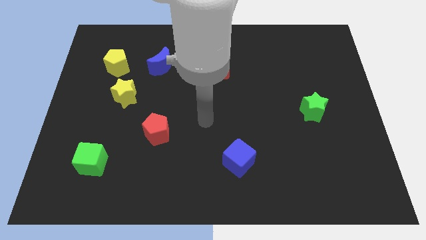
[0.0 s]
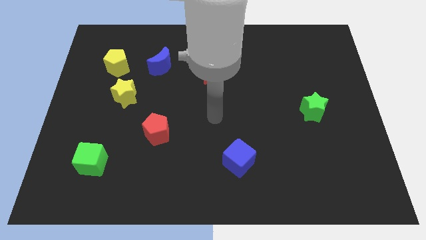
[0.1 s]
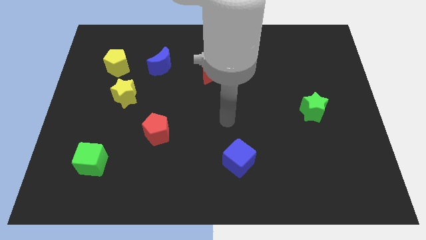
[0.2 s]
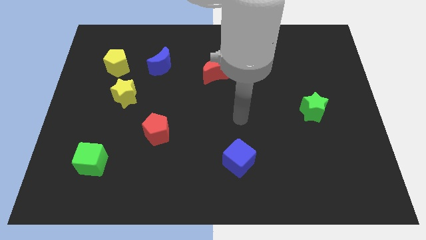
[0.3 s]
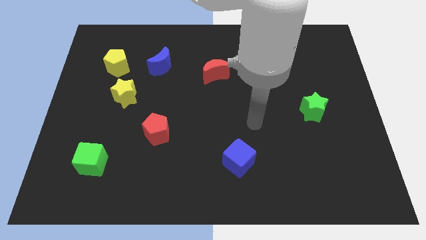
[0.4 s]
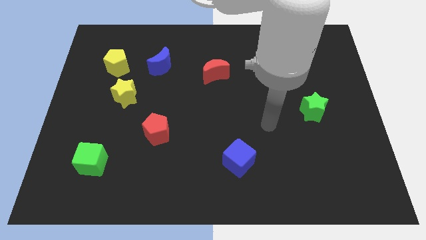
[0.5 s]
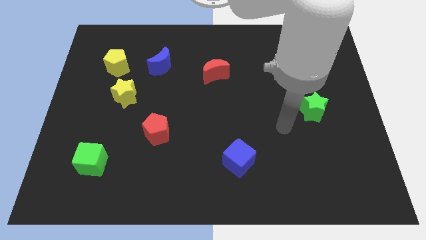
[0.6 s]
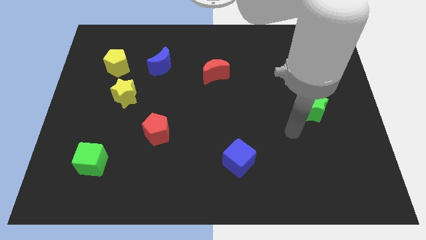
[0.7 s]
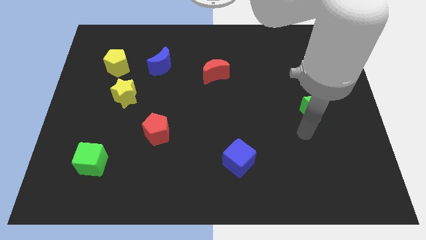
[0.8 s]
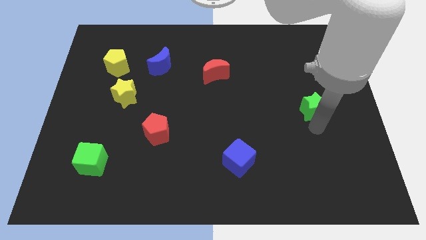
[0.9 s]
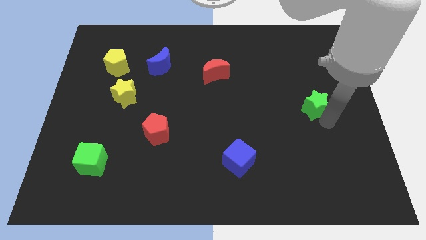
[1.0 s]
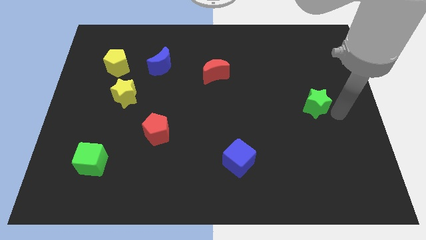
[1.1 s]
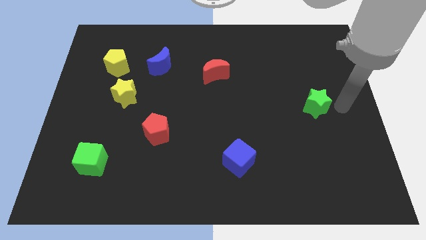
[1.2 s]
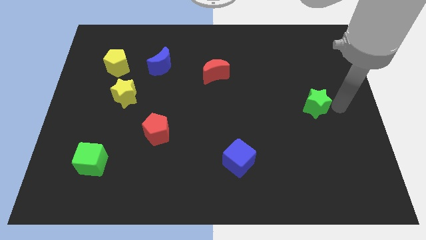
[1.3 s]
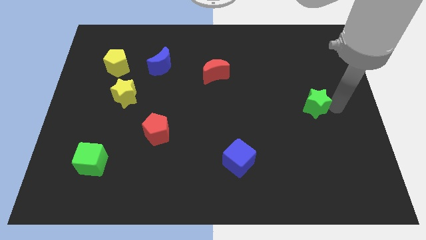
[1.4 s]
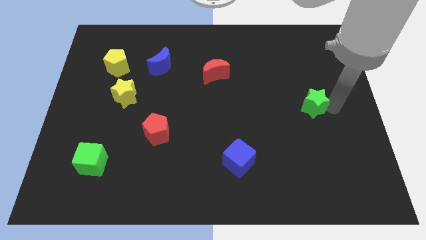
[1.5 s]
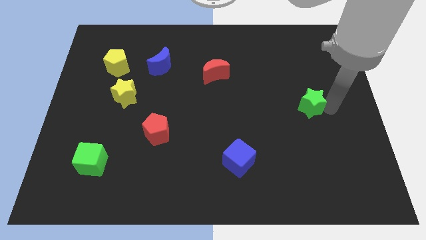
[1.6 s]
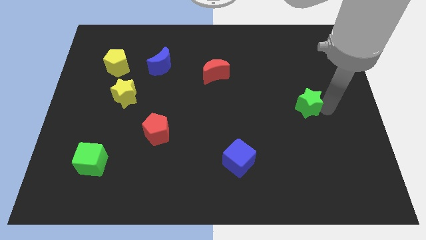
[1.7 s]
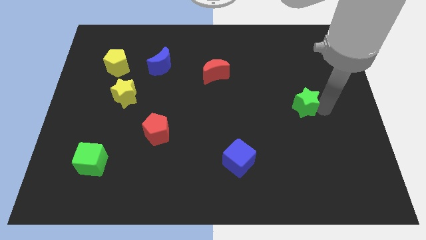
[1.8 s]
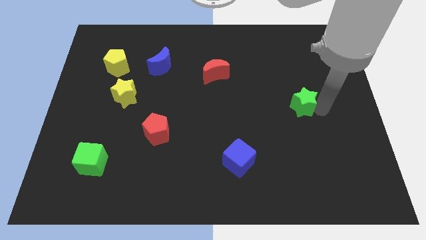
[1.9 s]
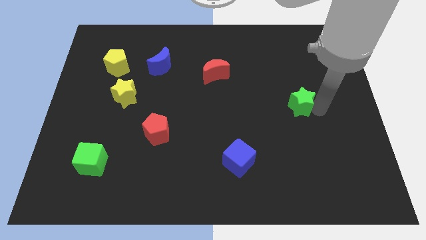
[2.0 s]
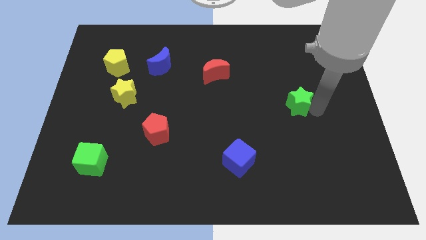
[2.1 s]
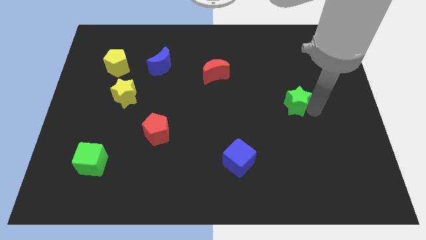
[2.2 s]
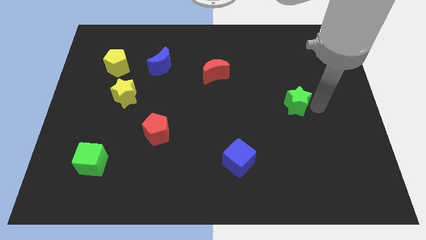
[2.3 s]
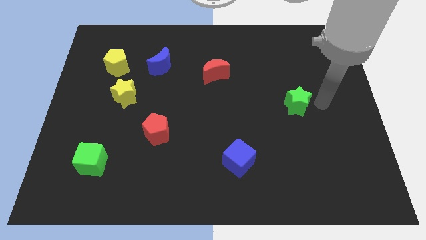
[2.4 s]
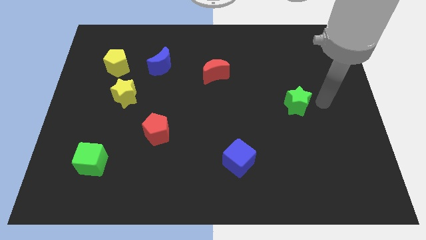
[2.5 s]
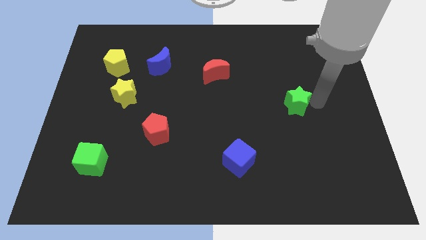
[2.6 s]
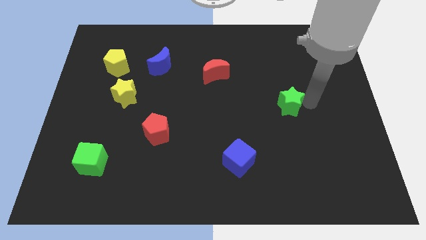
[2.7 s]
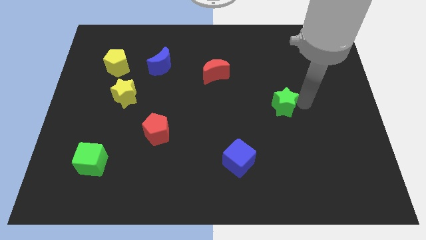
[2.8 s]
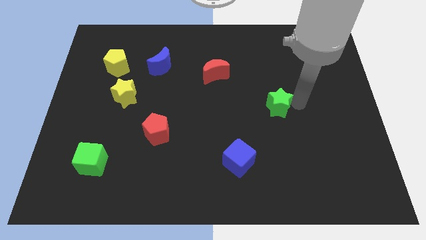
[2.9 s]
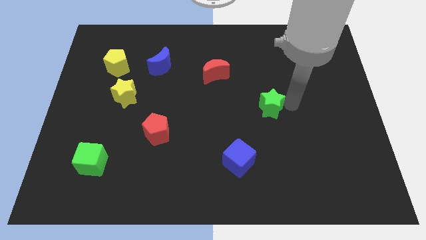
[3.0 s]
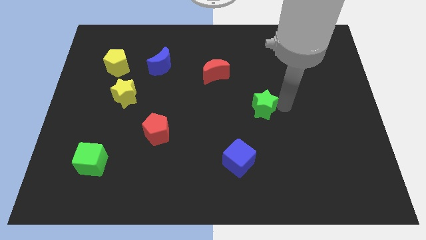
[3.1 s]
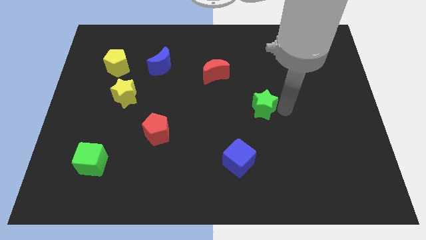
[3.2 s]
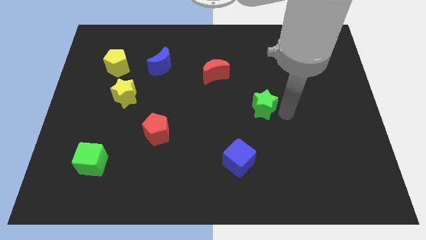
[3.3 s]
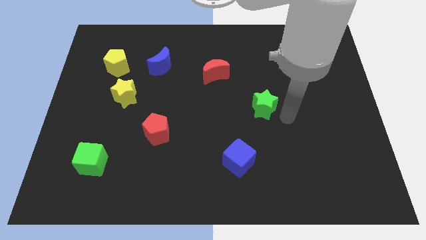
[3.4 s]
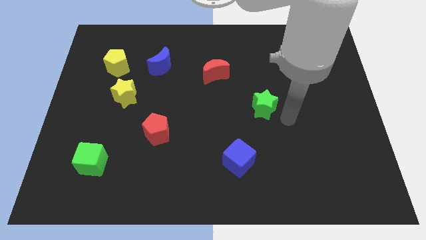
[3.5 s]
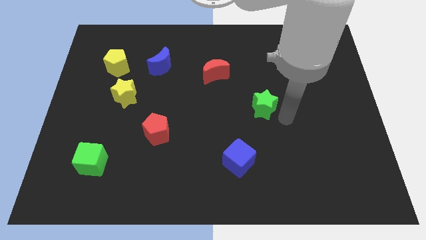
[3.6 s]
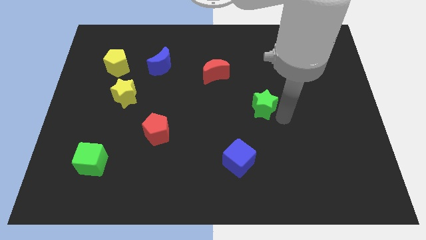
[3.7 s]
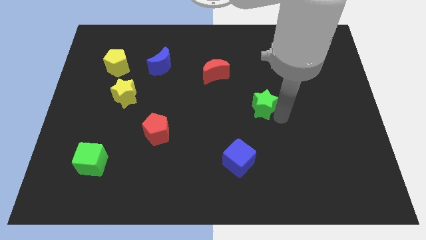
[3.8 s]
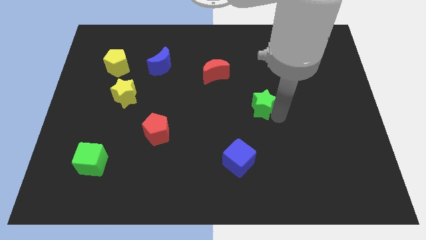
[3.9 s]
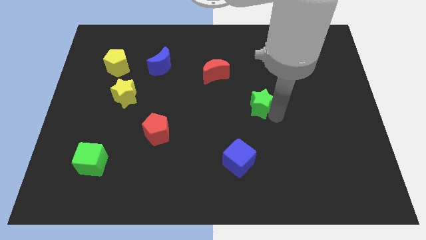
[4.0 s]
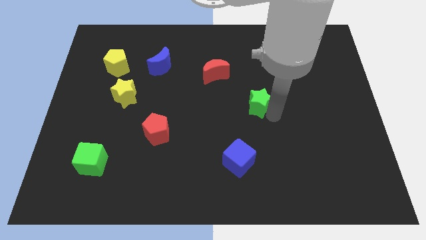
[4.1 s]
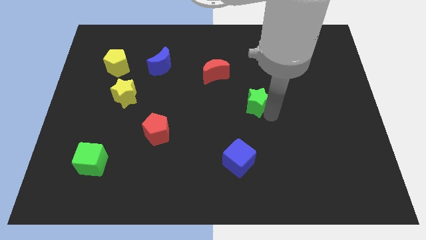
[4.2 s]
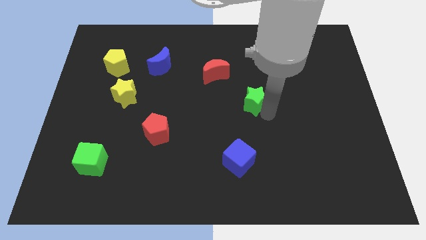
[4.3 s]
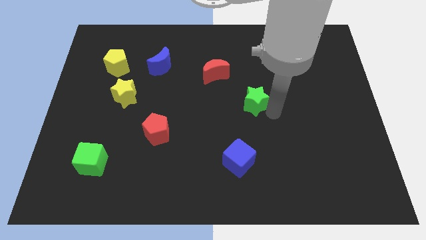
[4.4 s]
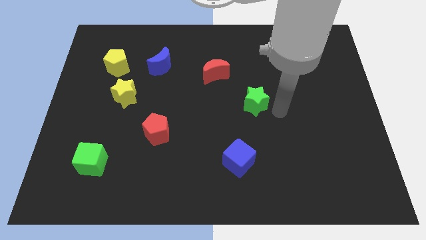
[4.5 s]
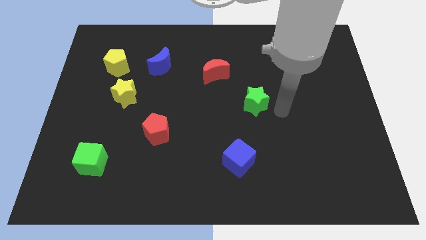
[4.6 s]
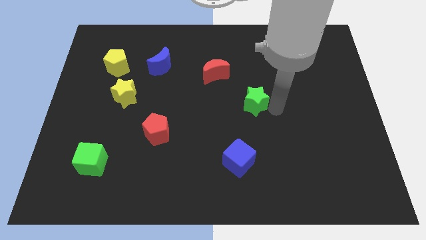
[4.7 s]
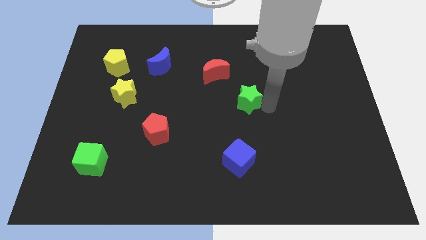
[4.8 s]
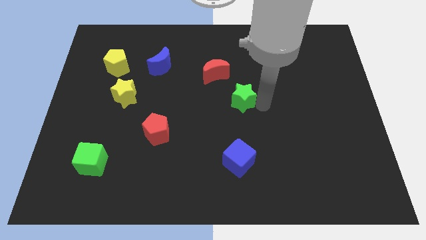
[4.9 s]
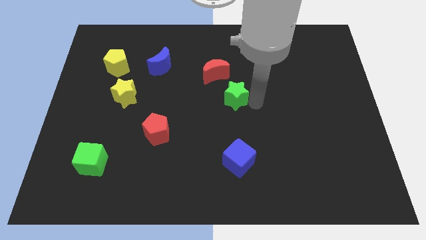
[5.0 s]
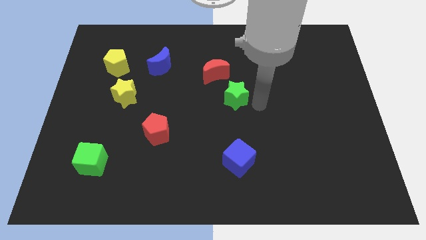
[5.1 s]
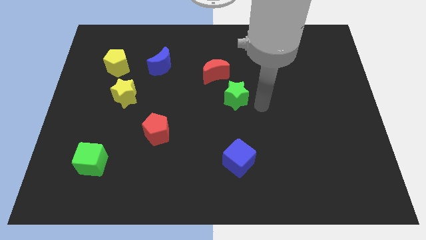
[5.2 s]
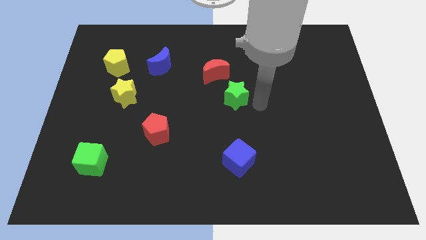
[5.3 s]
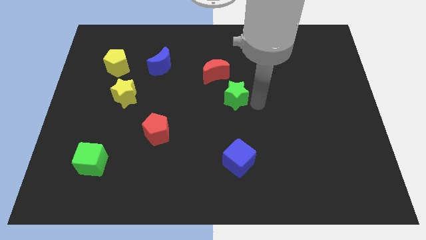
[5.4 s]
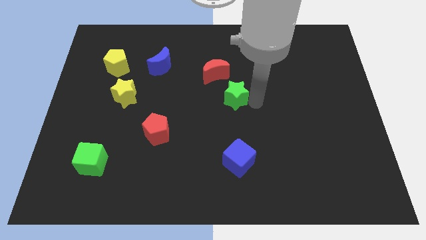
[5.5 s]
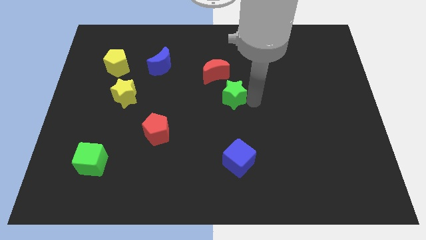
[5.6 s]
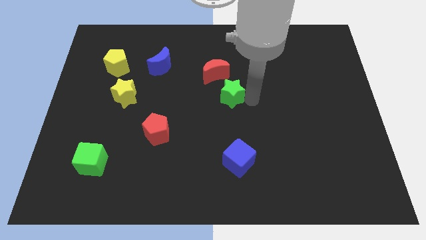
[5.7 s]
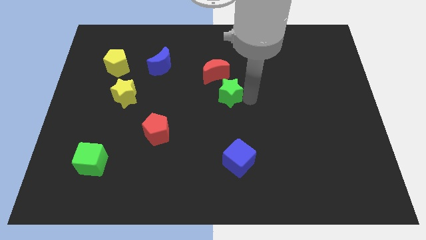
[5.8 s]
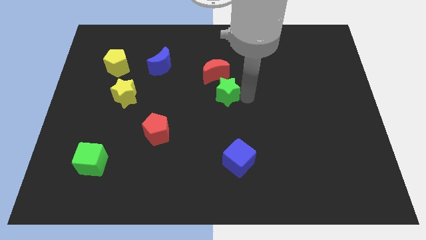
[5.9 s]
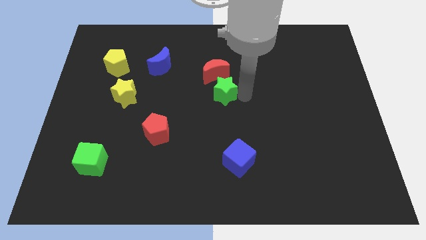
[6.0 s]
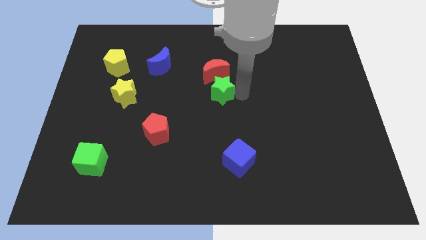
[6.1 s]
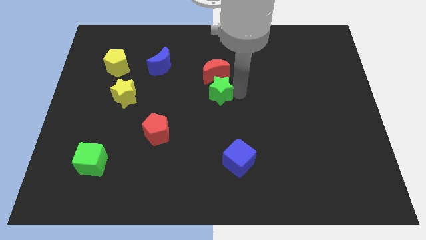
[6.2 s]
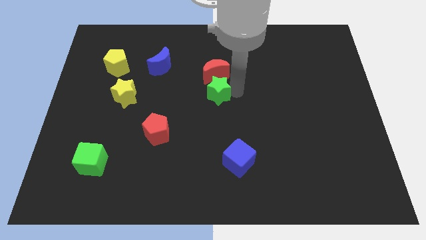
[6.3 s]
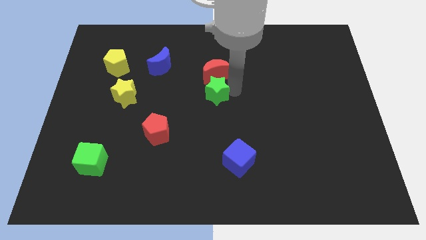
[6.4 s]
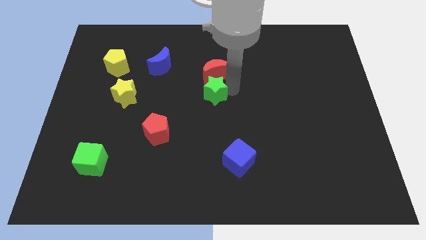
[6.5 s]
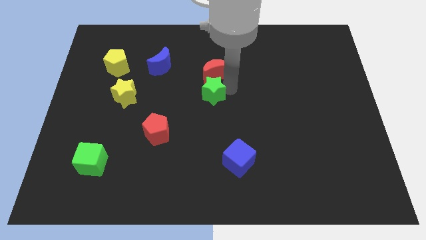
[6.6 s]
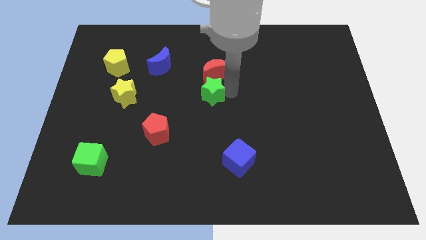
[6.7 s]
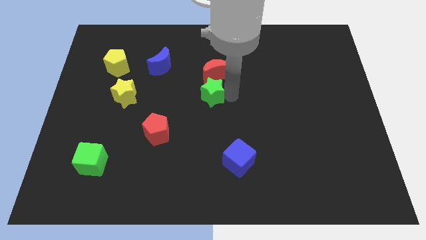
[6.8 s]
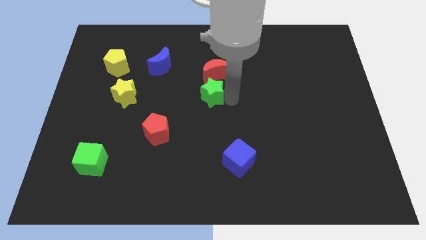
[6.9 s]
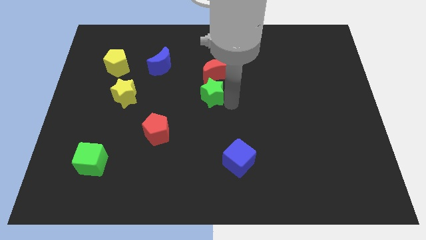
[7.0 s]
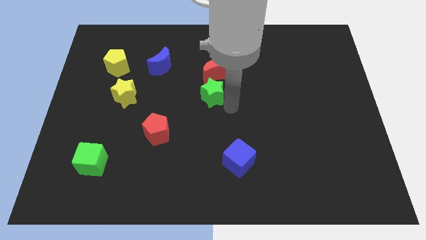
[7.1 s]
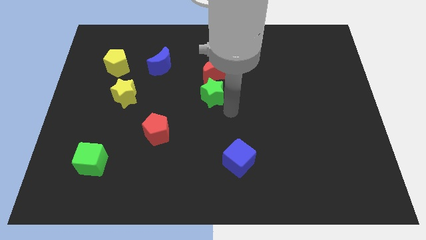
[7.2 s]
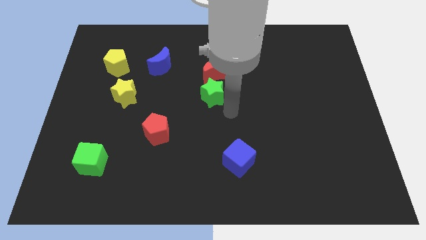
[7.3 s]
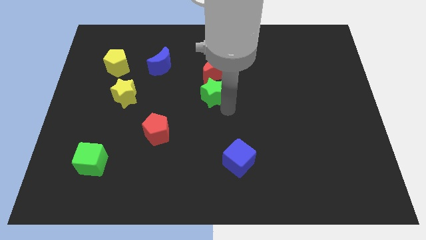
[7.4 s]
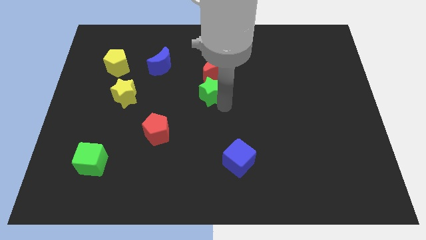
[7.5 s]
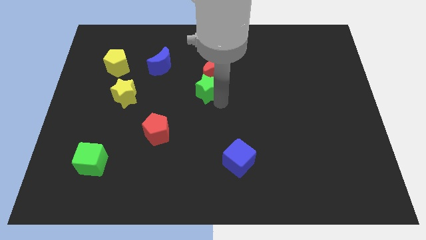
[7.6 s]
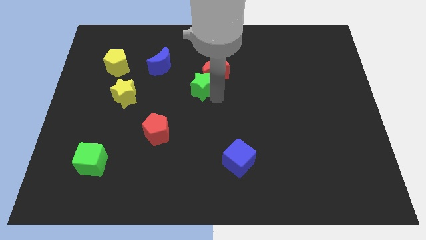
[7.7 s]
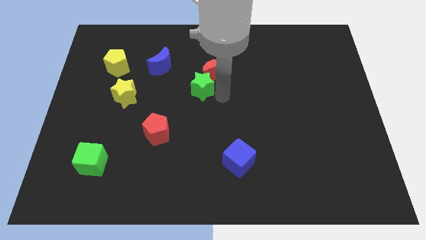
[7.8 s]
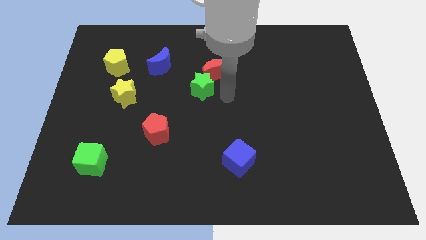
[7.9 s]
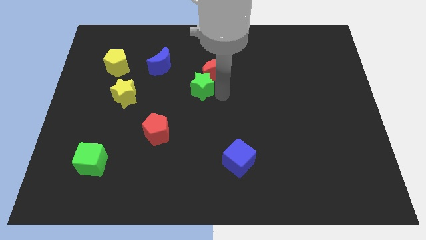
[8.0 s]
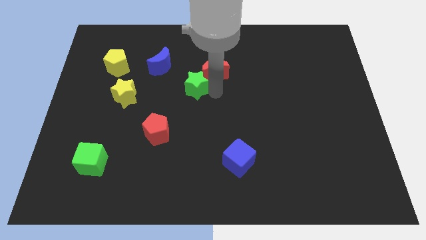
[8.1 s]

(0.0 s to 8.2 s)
push the green star diagonally down and to the right of the blue moon
